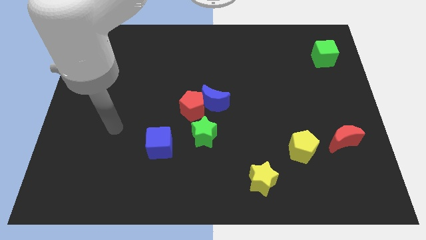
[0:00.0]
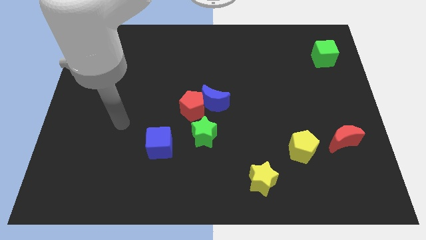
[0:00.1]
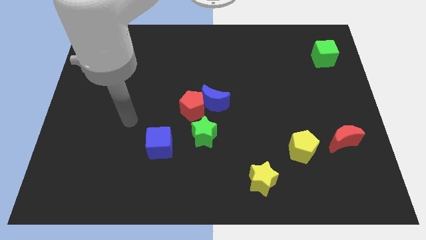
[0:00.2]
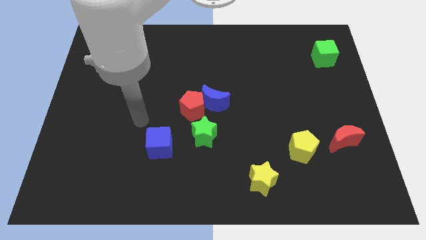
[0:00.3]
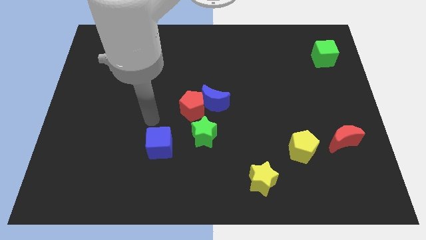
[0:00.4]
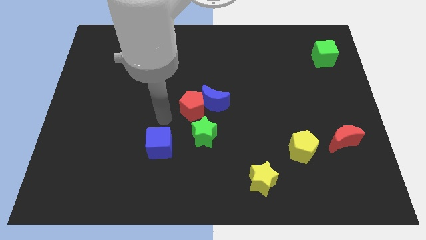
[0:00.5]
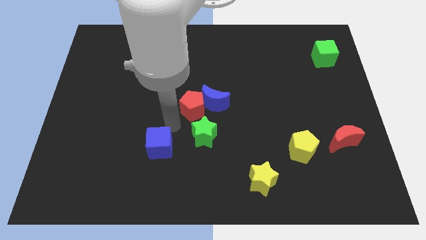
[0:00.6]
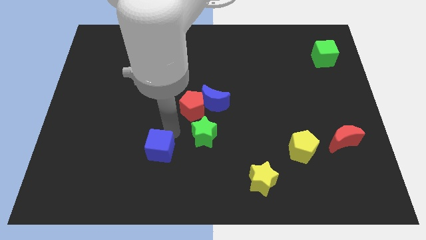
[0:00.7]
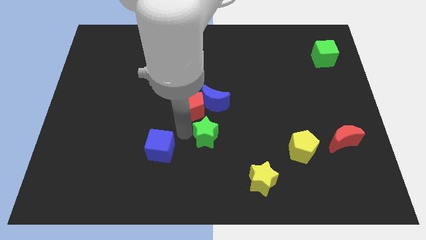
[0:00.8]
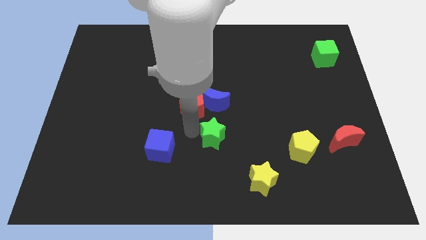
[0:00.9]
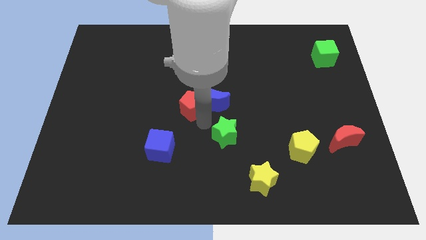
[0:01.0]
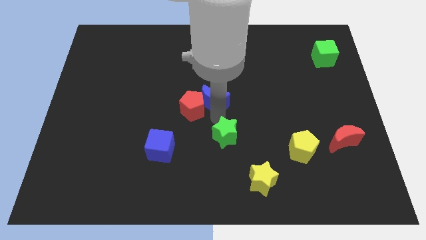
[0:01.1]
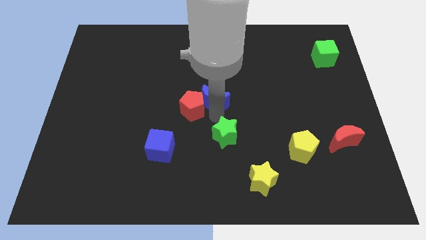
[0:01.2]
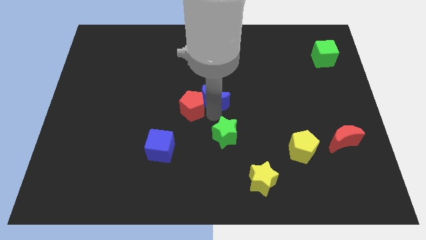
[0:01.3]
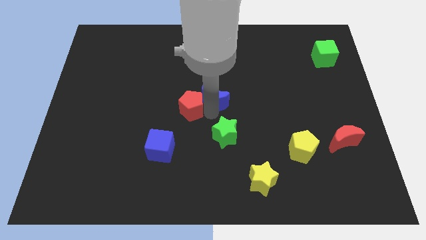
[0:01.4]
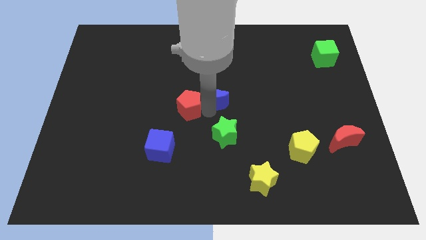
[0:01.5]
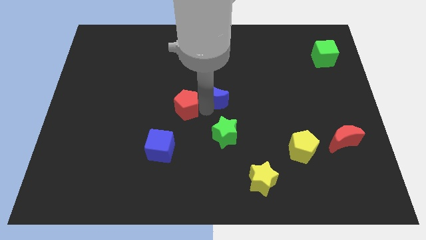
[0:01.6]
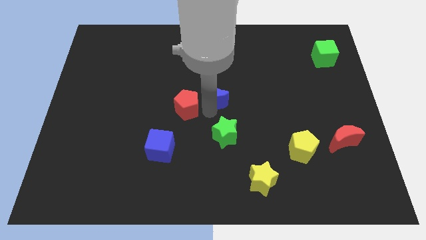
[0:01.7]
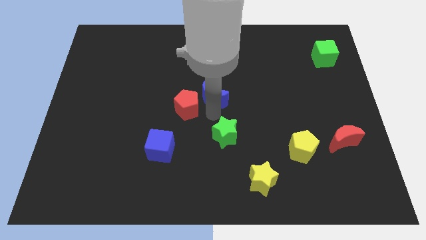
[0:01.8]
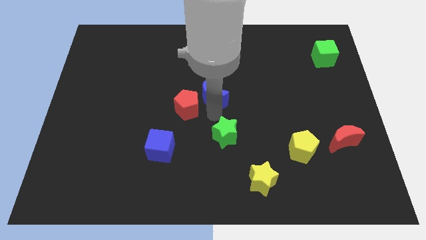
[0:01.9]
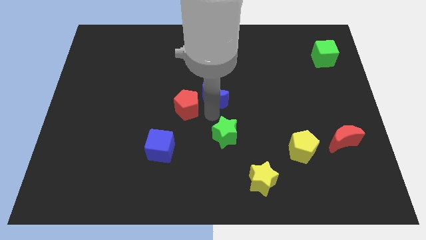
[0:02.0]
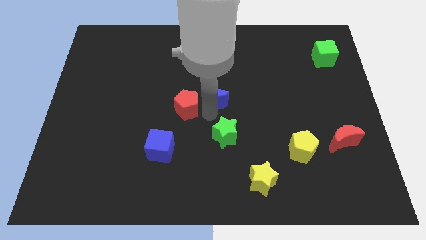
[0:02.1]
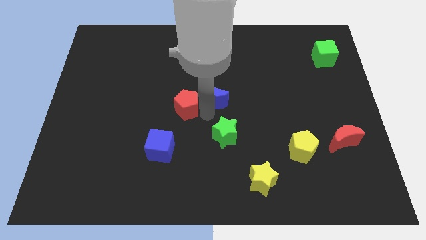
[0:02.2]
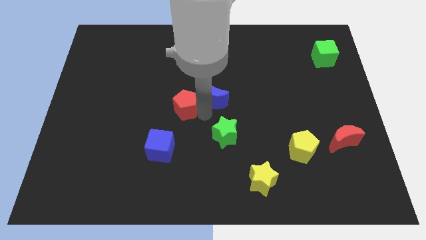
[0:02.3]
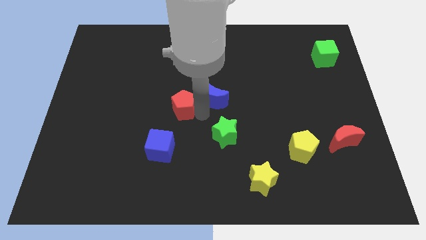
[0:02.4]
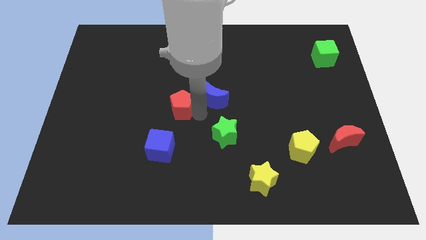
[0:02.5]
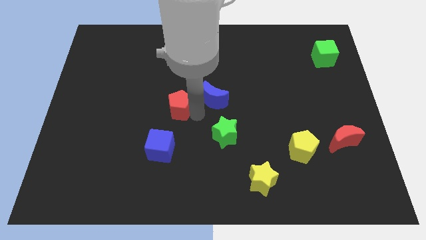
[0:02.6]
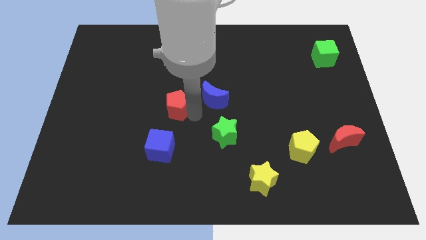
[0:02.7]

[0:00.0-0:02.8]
separate the red pentagon from the blue moon and green star

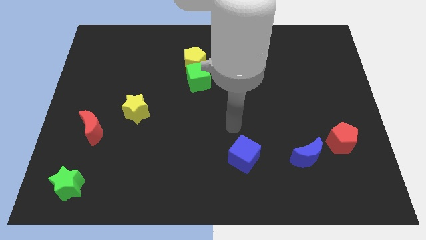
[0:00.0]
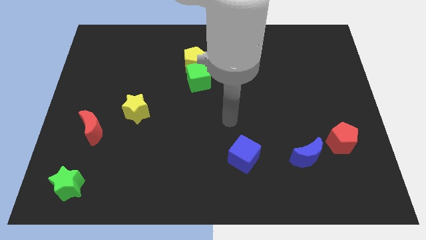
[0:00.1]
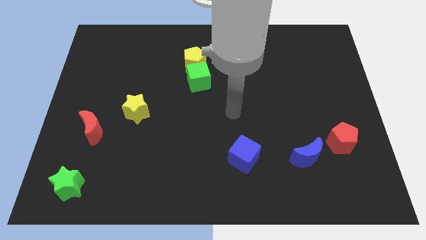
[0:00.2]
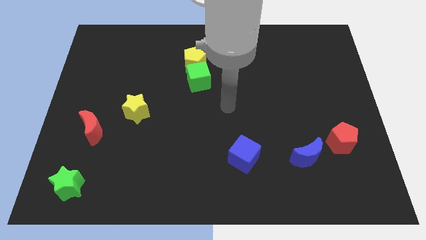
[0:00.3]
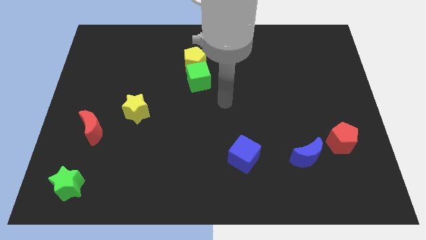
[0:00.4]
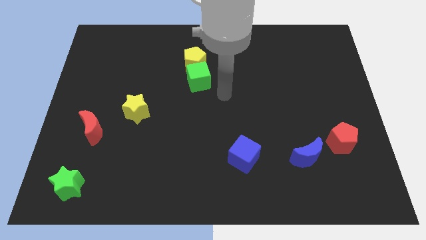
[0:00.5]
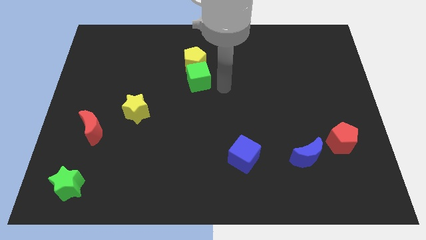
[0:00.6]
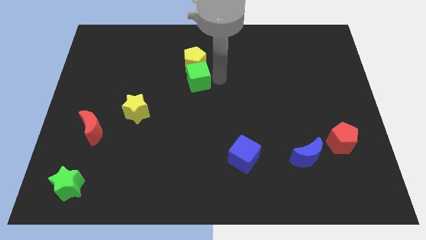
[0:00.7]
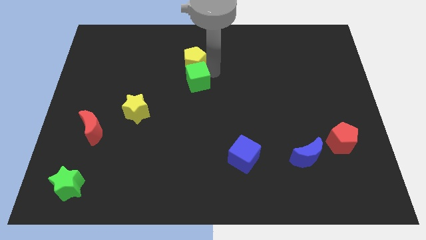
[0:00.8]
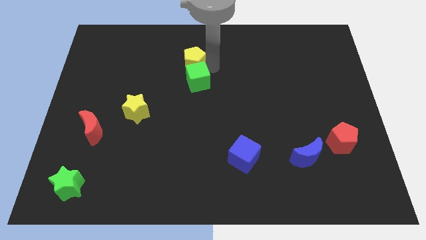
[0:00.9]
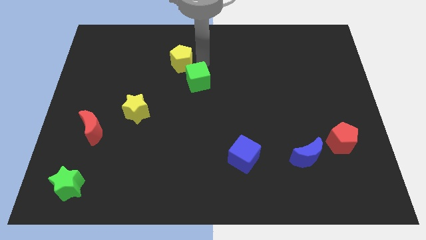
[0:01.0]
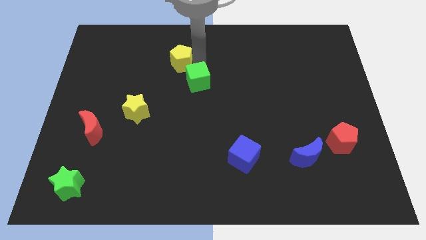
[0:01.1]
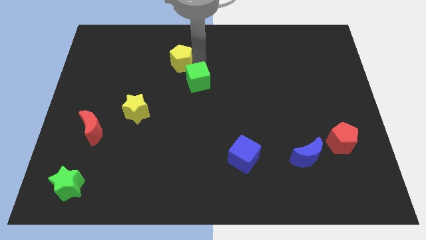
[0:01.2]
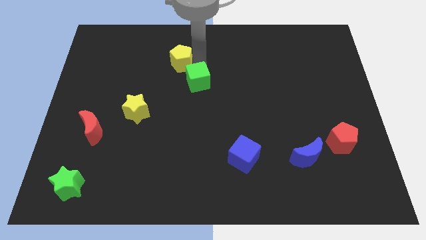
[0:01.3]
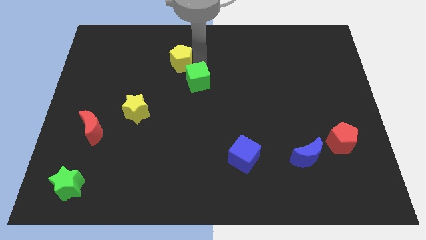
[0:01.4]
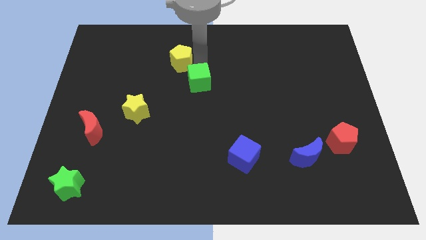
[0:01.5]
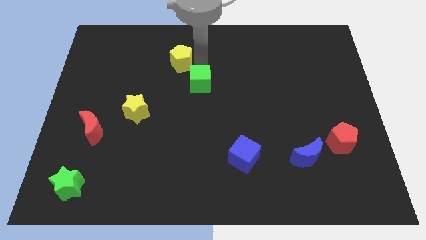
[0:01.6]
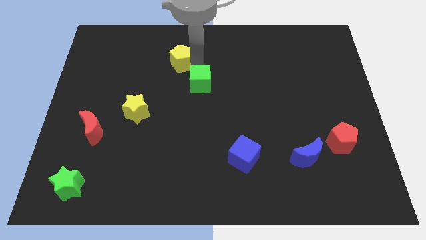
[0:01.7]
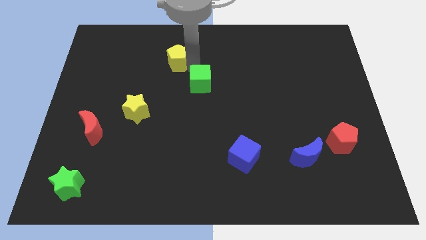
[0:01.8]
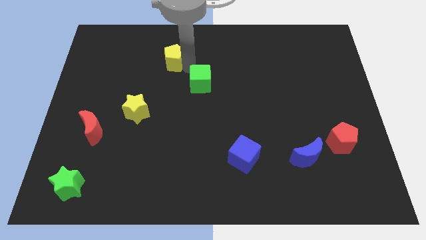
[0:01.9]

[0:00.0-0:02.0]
separate the green cube from the yellow pentagon

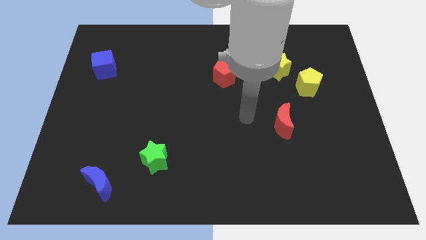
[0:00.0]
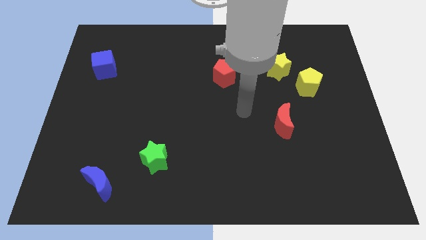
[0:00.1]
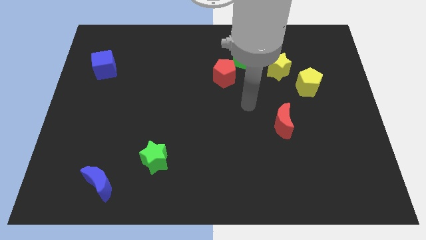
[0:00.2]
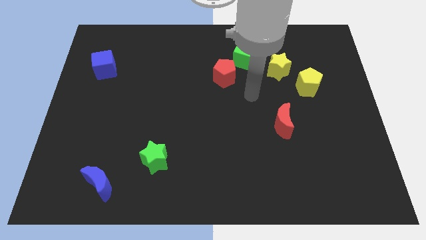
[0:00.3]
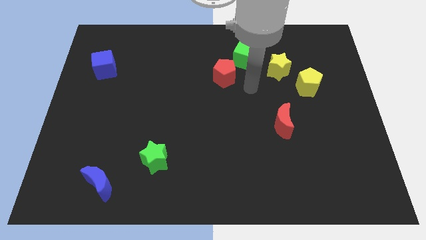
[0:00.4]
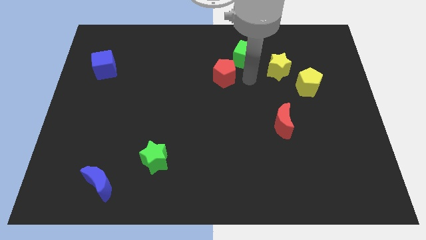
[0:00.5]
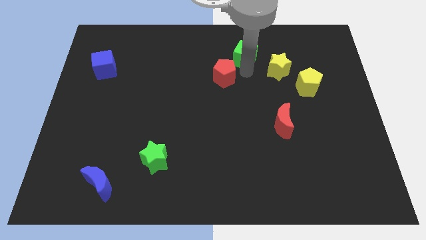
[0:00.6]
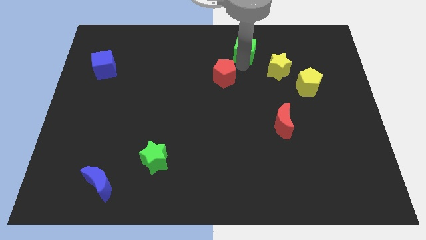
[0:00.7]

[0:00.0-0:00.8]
pull the red pentagon apart from the green cube

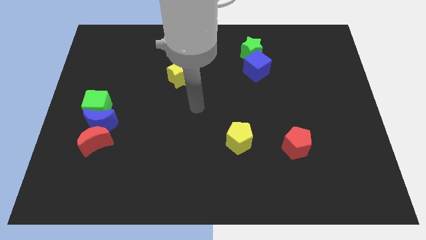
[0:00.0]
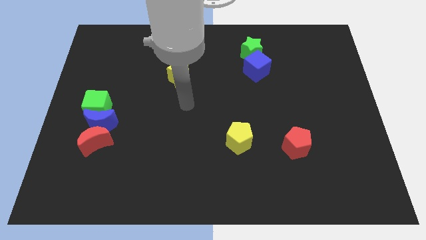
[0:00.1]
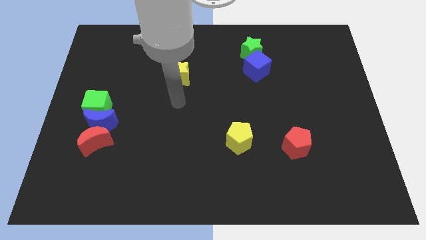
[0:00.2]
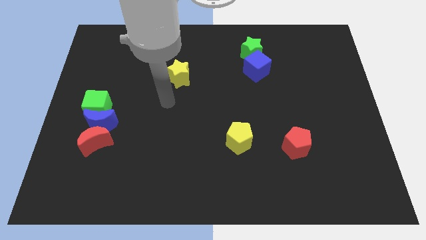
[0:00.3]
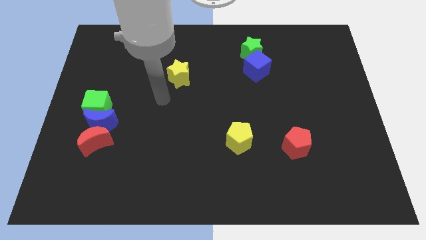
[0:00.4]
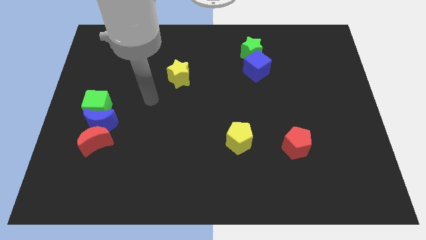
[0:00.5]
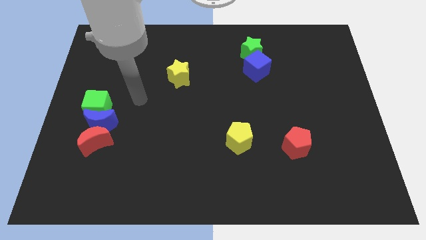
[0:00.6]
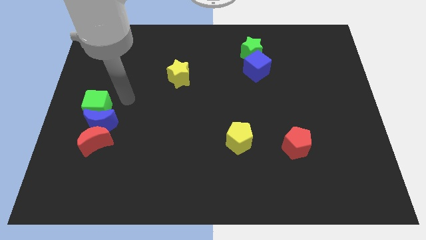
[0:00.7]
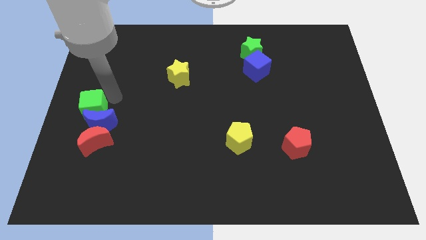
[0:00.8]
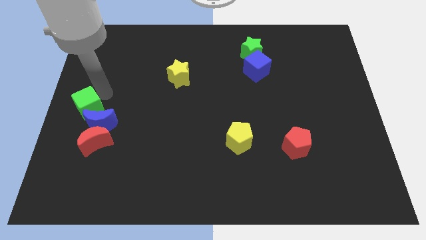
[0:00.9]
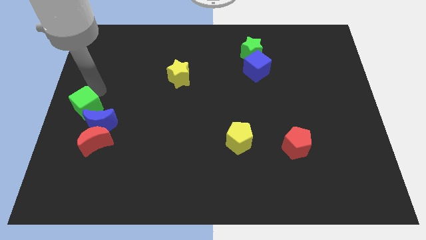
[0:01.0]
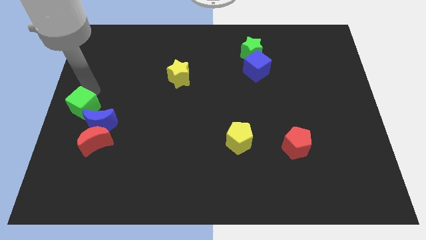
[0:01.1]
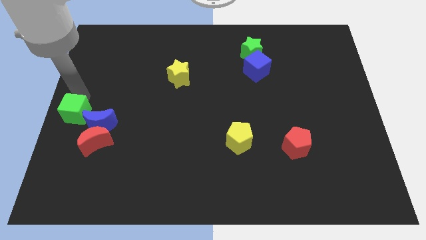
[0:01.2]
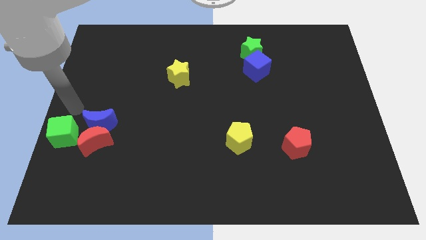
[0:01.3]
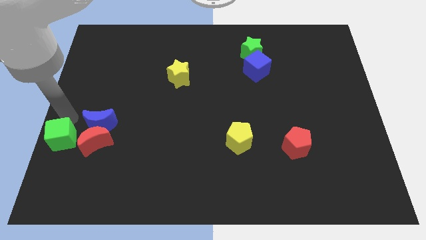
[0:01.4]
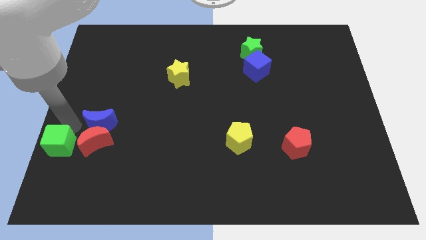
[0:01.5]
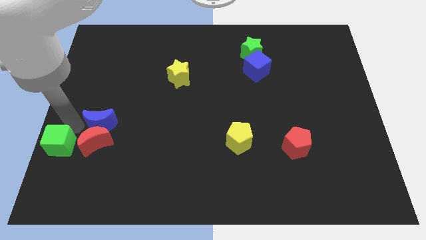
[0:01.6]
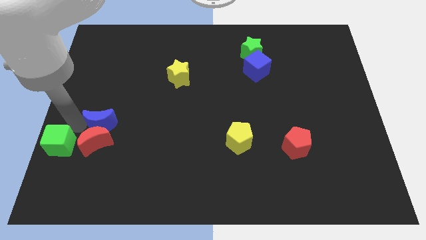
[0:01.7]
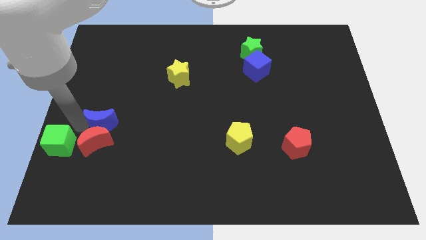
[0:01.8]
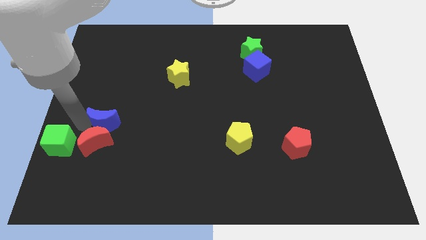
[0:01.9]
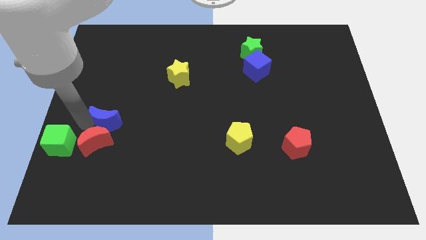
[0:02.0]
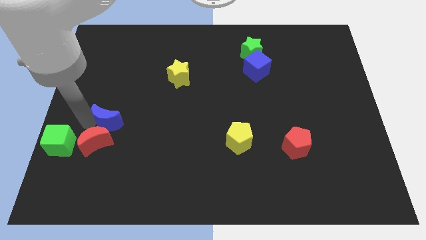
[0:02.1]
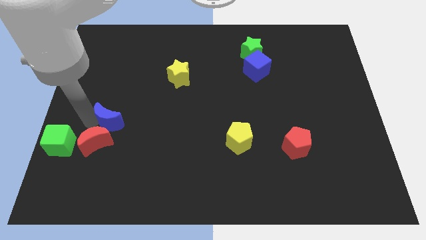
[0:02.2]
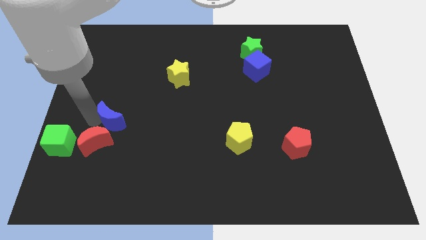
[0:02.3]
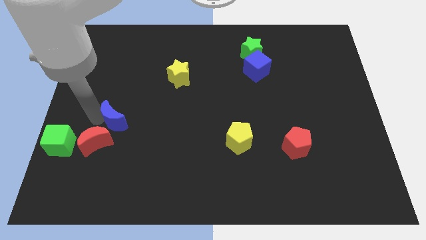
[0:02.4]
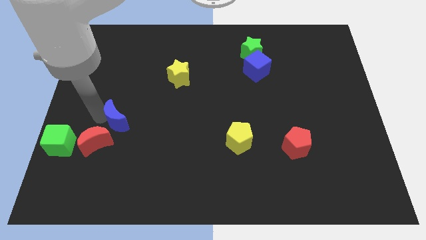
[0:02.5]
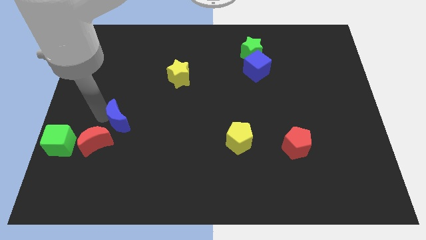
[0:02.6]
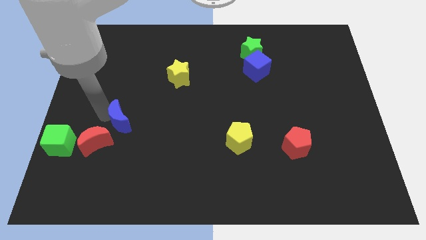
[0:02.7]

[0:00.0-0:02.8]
separate the blue moon from the green cube and red moon

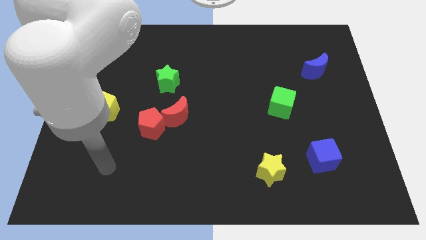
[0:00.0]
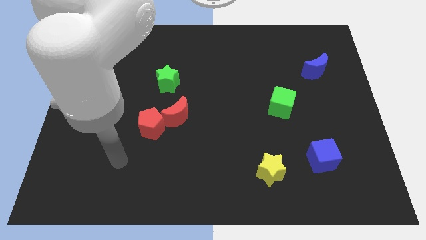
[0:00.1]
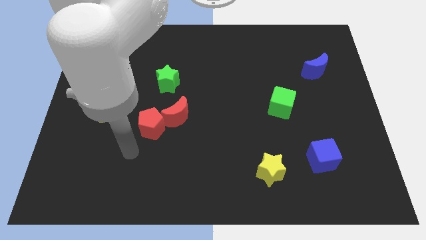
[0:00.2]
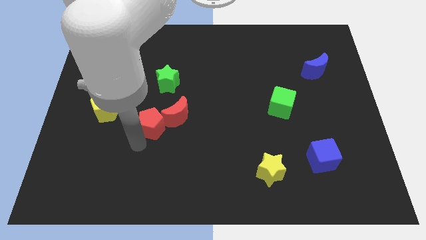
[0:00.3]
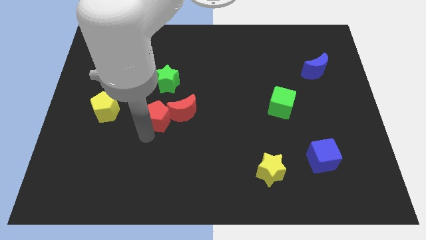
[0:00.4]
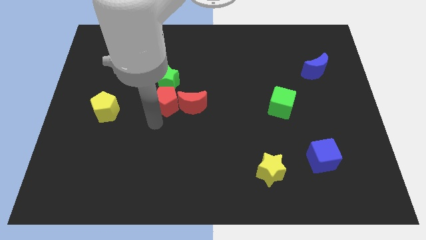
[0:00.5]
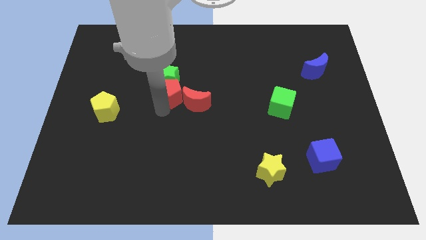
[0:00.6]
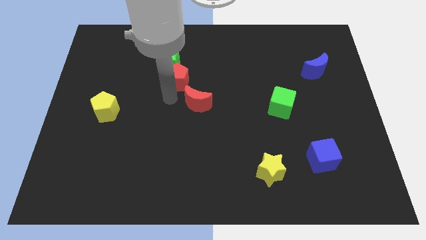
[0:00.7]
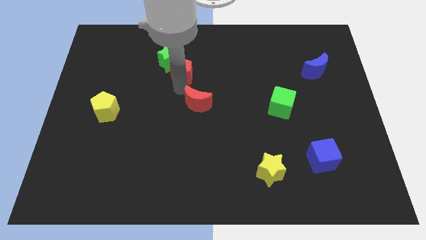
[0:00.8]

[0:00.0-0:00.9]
separate the red moon from the red pentagon
